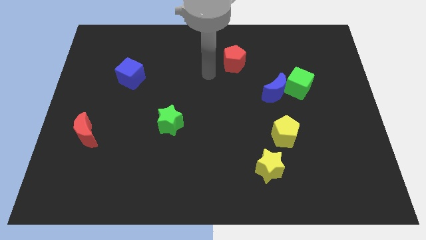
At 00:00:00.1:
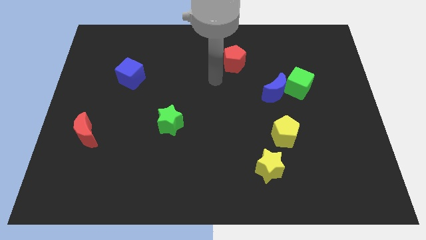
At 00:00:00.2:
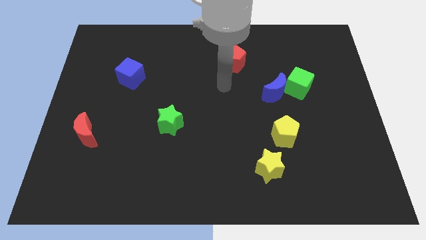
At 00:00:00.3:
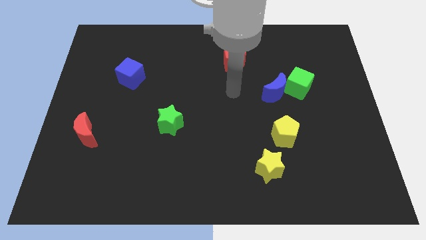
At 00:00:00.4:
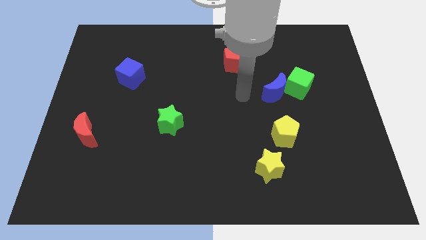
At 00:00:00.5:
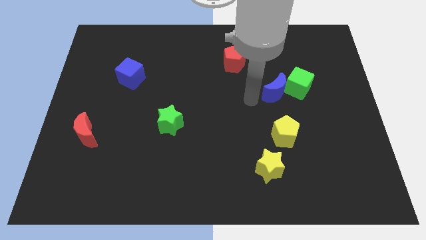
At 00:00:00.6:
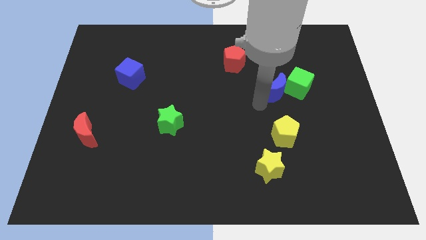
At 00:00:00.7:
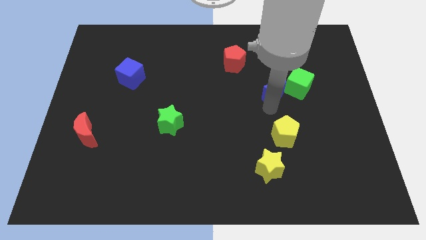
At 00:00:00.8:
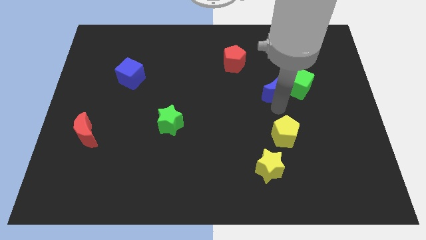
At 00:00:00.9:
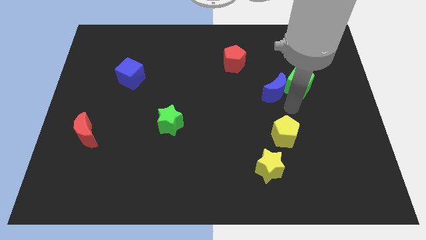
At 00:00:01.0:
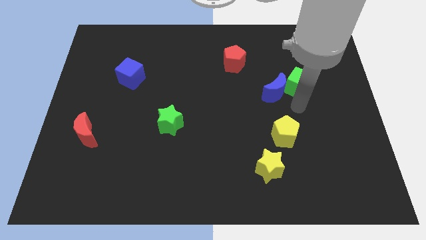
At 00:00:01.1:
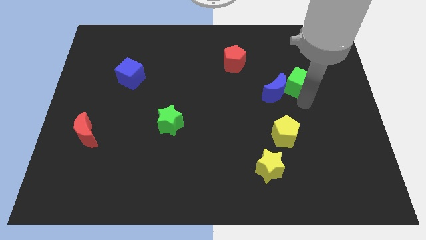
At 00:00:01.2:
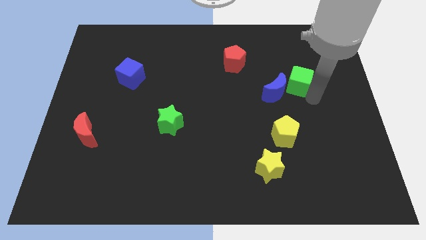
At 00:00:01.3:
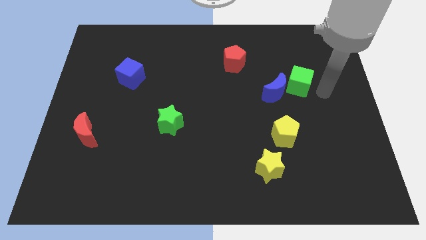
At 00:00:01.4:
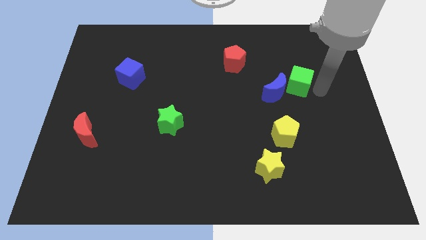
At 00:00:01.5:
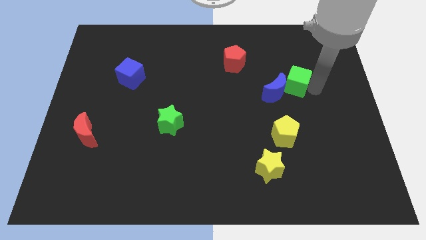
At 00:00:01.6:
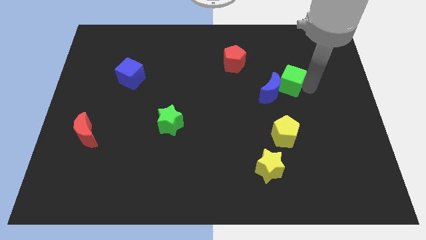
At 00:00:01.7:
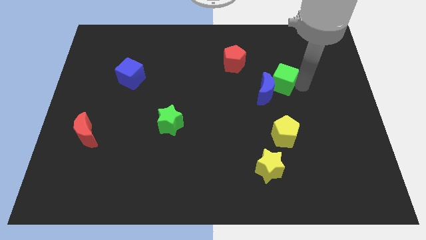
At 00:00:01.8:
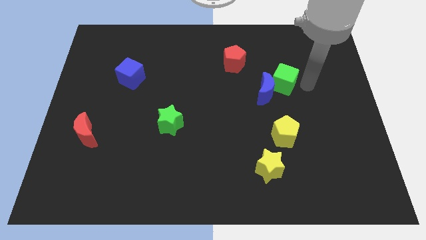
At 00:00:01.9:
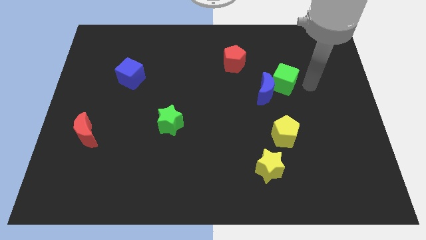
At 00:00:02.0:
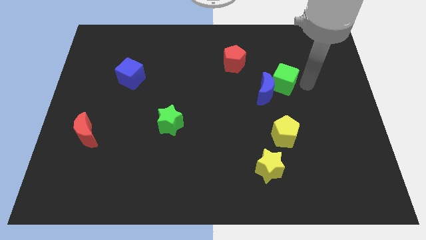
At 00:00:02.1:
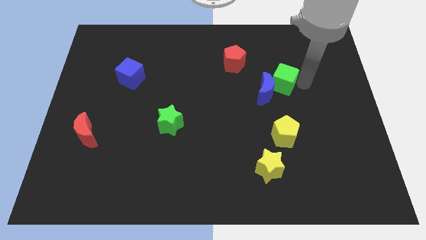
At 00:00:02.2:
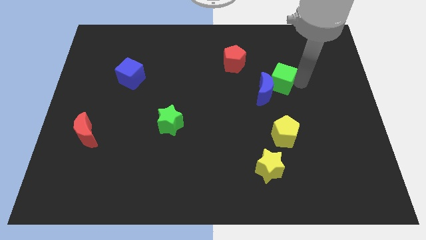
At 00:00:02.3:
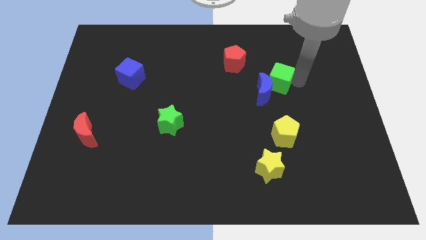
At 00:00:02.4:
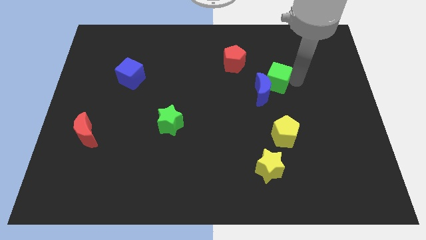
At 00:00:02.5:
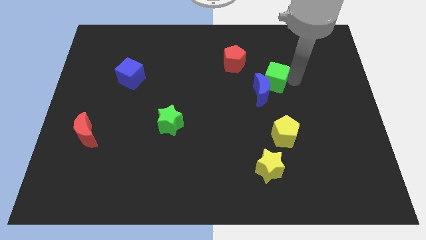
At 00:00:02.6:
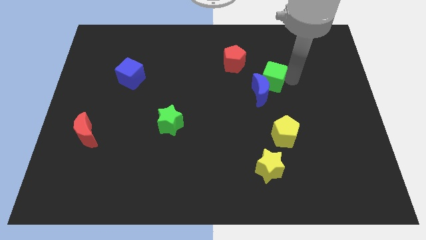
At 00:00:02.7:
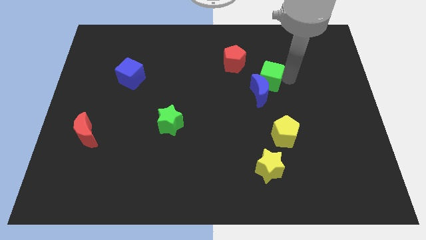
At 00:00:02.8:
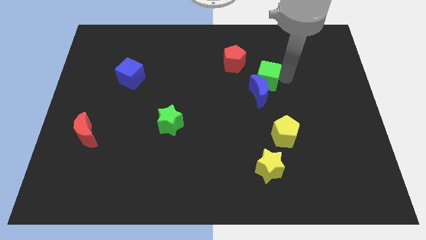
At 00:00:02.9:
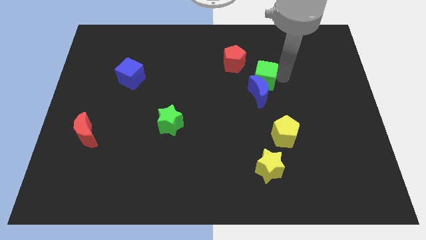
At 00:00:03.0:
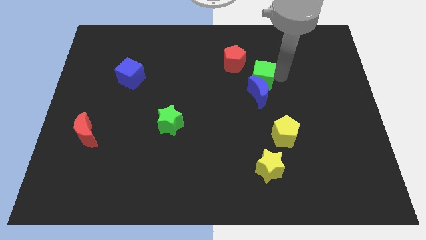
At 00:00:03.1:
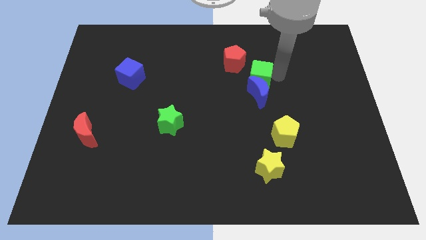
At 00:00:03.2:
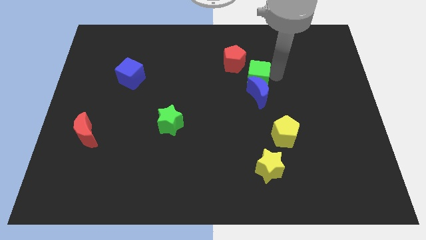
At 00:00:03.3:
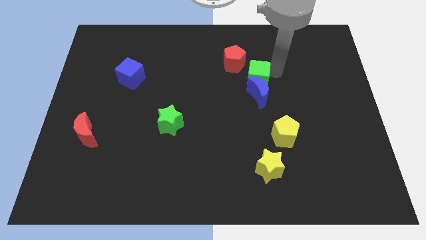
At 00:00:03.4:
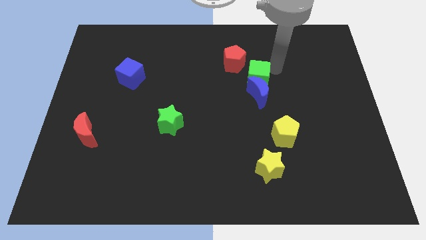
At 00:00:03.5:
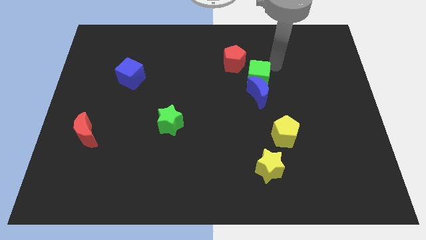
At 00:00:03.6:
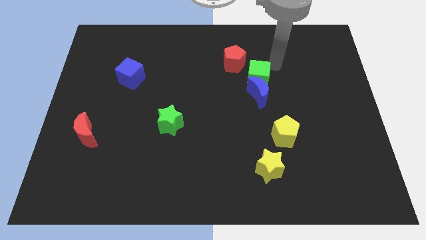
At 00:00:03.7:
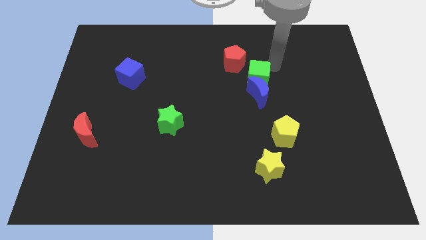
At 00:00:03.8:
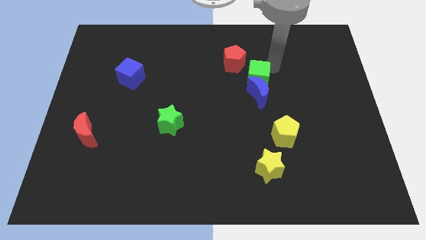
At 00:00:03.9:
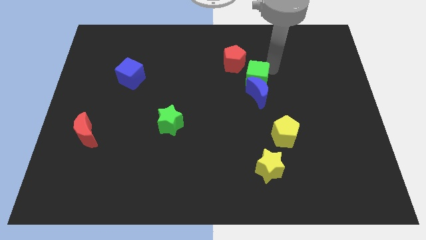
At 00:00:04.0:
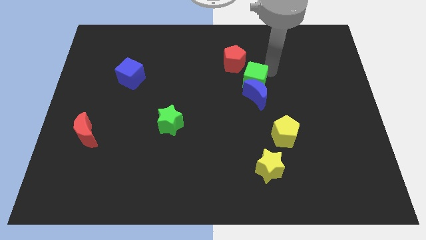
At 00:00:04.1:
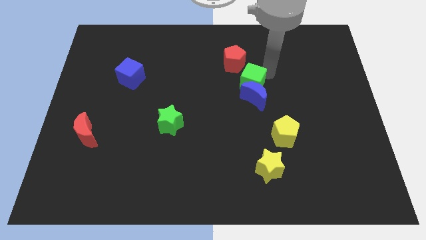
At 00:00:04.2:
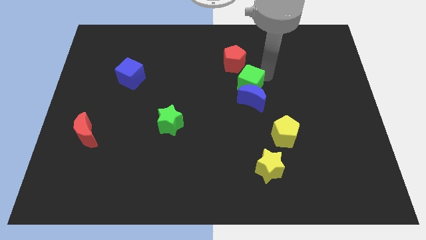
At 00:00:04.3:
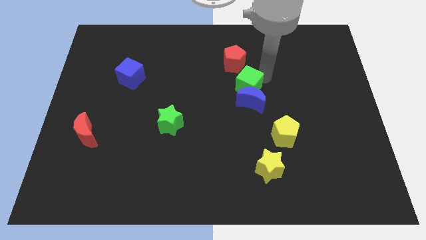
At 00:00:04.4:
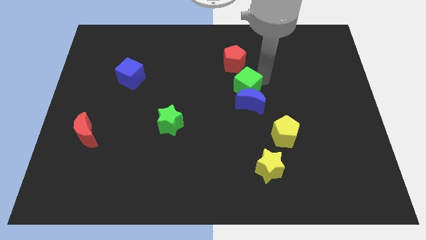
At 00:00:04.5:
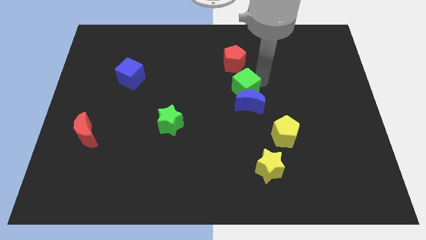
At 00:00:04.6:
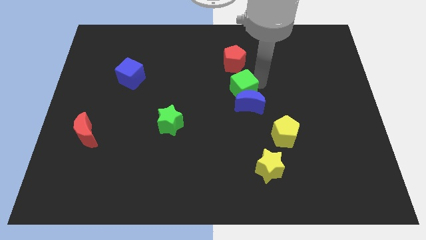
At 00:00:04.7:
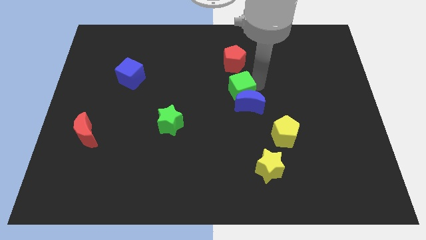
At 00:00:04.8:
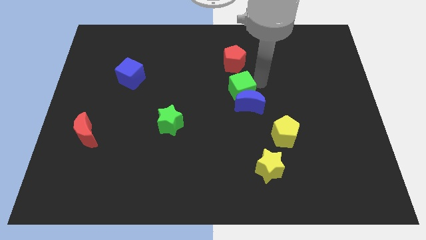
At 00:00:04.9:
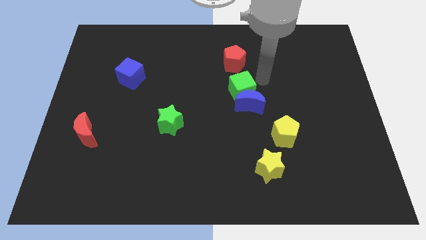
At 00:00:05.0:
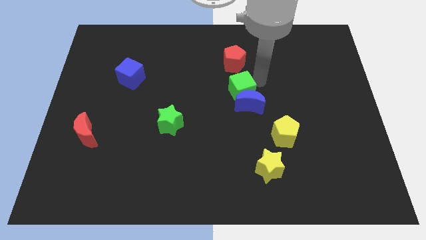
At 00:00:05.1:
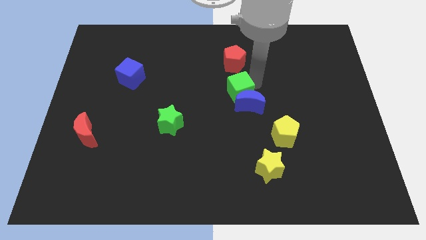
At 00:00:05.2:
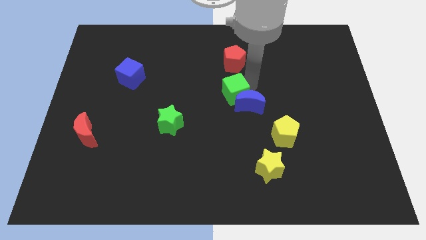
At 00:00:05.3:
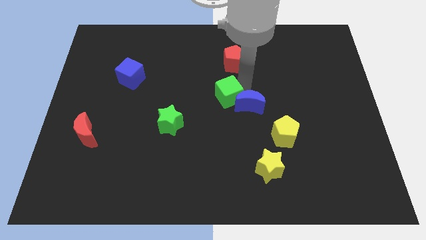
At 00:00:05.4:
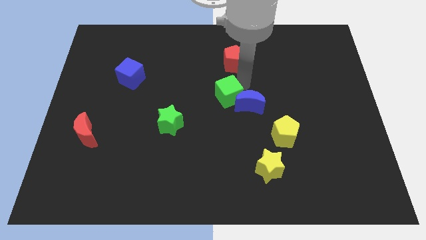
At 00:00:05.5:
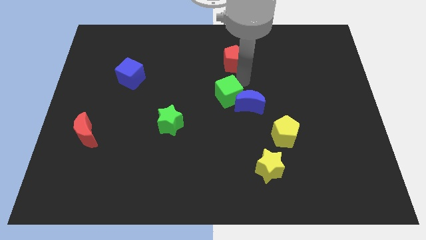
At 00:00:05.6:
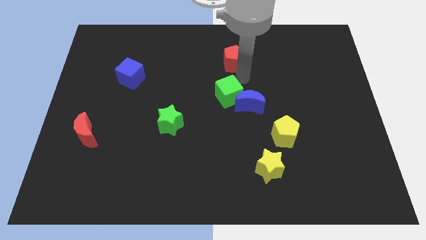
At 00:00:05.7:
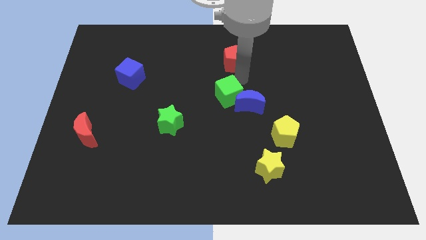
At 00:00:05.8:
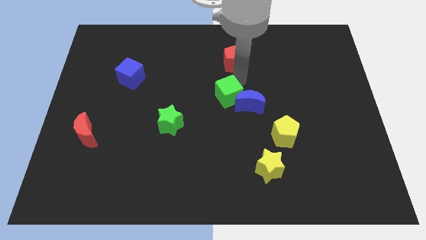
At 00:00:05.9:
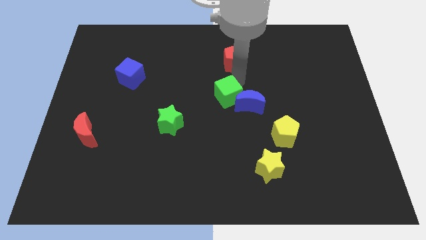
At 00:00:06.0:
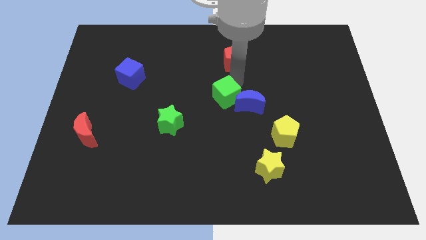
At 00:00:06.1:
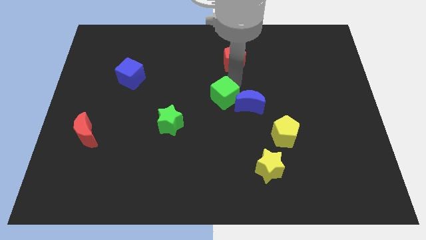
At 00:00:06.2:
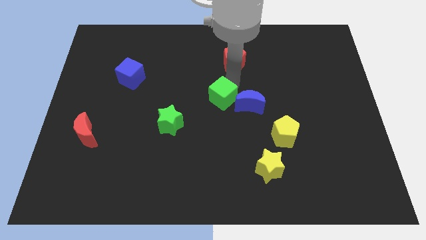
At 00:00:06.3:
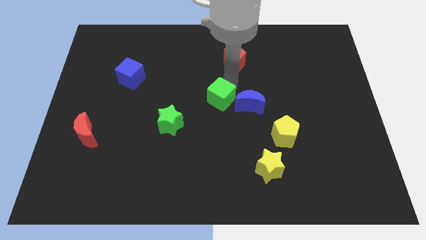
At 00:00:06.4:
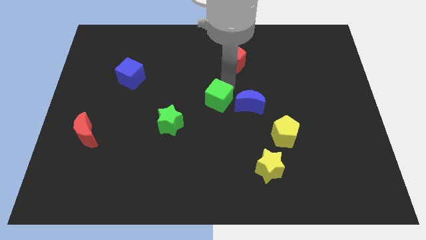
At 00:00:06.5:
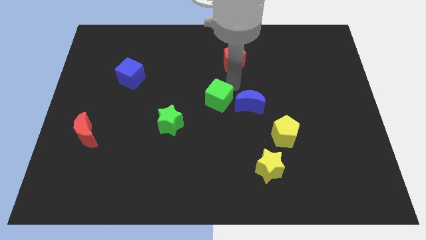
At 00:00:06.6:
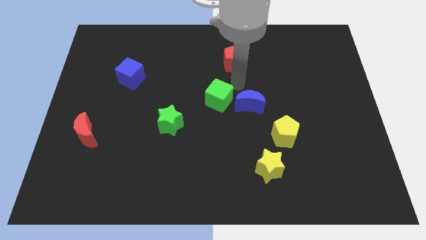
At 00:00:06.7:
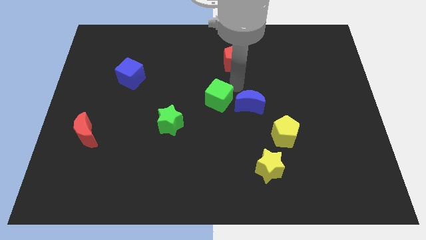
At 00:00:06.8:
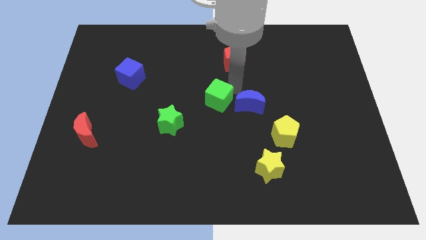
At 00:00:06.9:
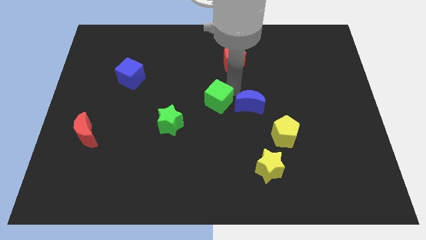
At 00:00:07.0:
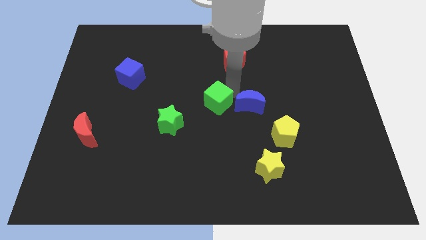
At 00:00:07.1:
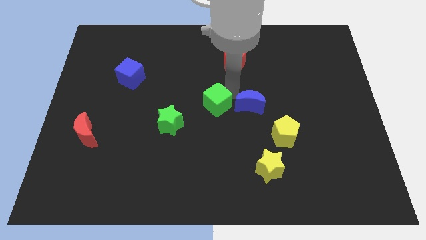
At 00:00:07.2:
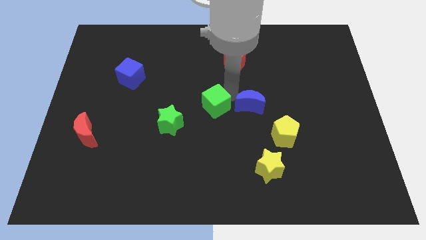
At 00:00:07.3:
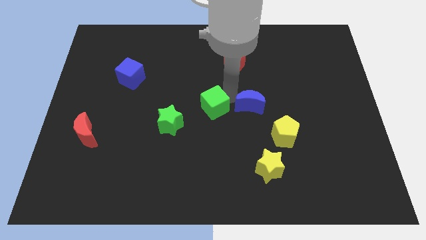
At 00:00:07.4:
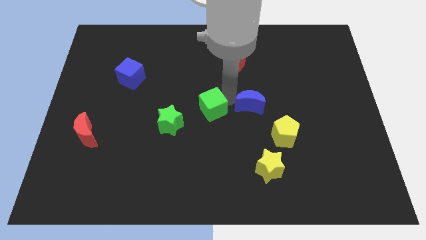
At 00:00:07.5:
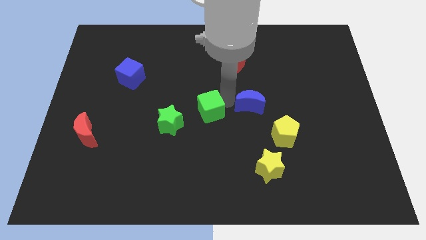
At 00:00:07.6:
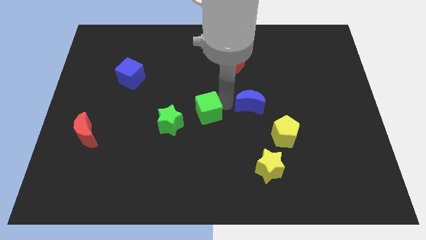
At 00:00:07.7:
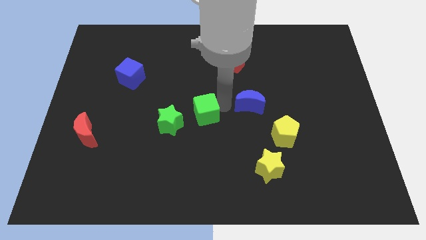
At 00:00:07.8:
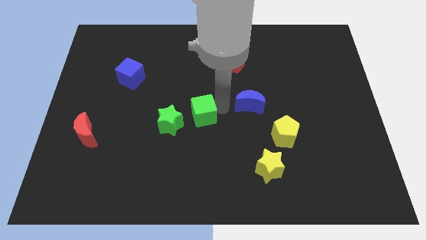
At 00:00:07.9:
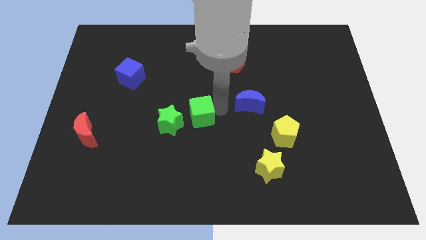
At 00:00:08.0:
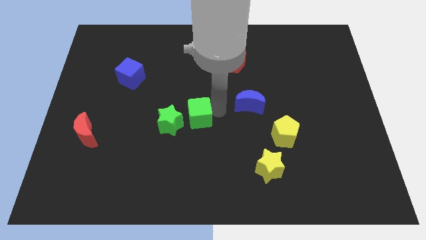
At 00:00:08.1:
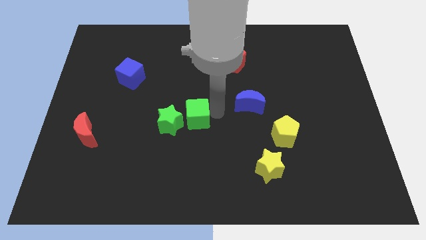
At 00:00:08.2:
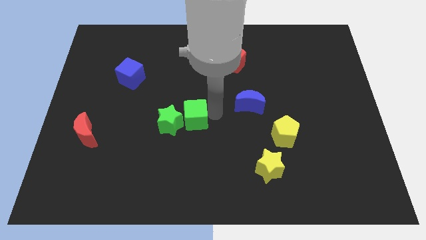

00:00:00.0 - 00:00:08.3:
slide the green cube towards the green star
